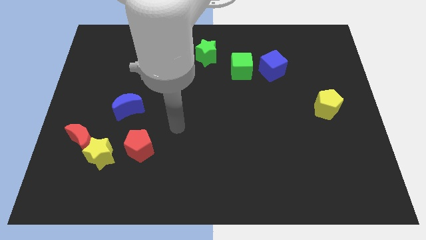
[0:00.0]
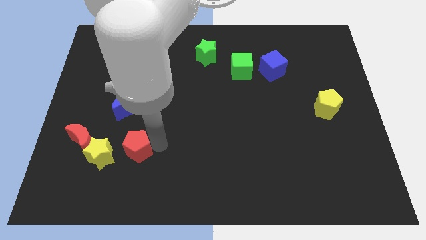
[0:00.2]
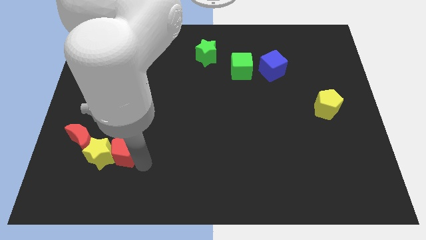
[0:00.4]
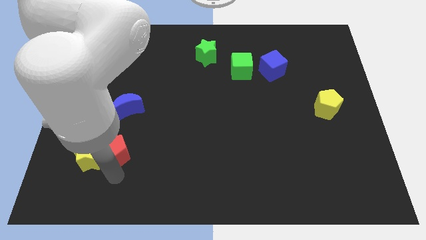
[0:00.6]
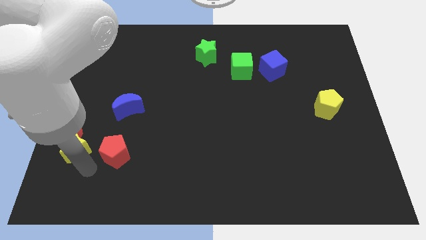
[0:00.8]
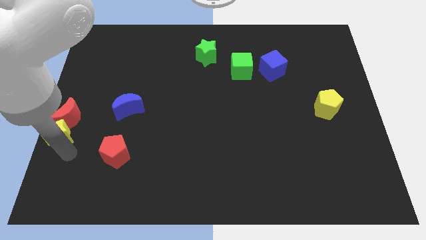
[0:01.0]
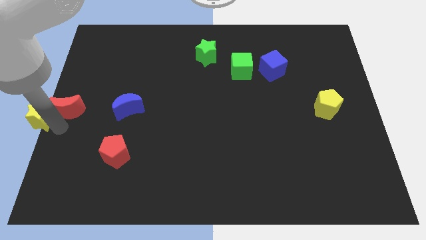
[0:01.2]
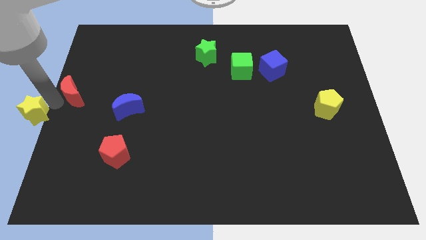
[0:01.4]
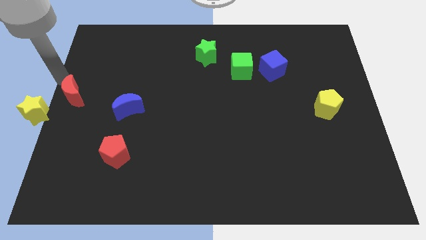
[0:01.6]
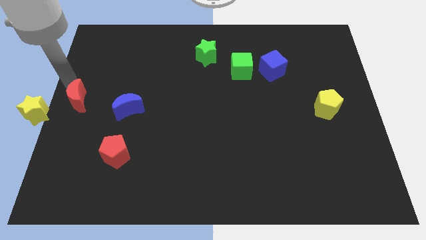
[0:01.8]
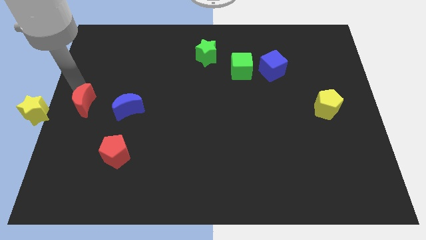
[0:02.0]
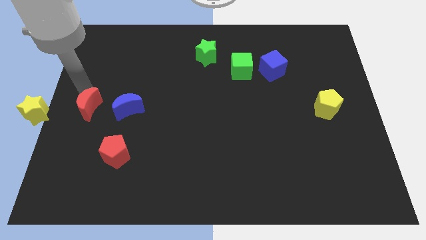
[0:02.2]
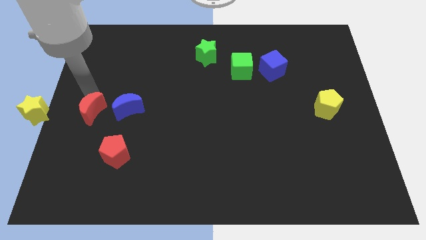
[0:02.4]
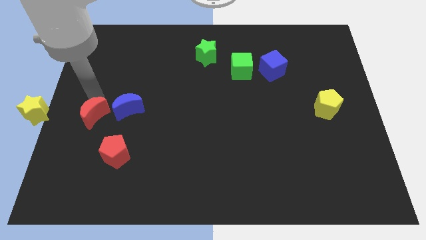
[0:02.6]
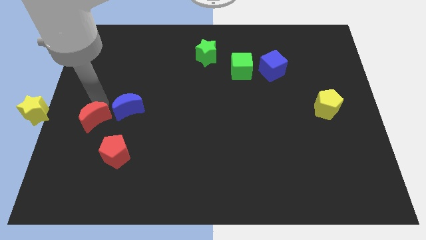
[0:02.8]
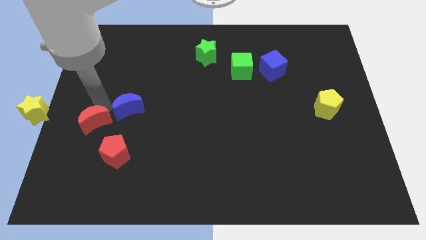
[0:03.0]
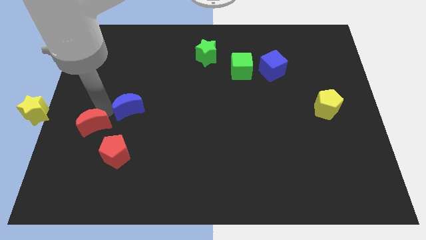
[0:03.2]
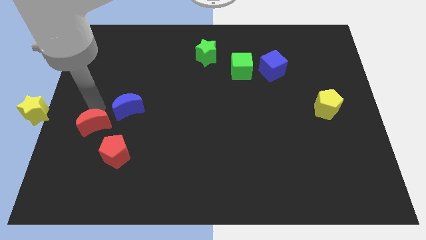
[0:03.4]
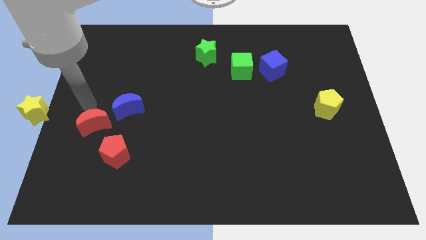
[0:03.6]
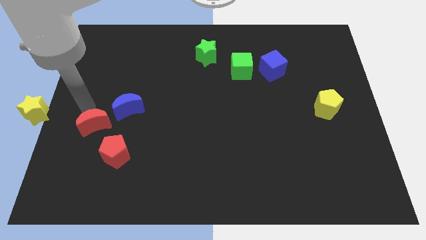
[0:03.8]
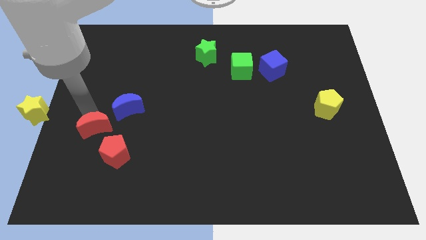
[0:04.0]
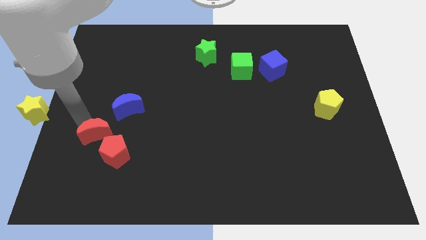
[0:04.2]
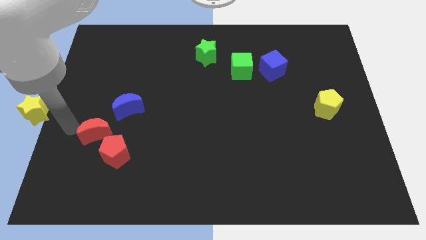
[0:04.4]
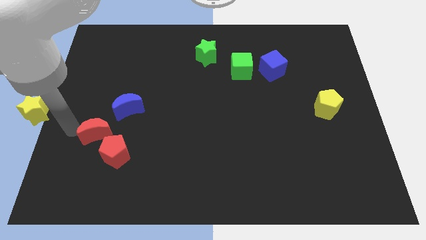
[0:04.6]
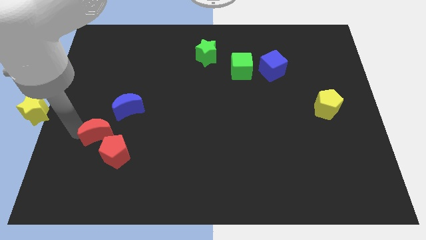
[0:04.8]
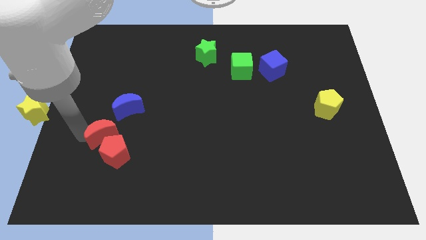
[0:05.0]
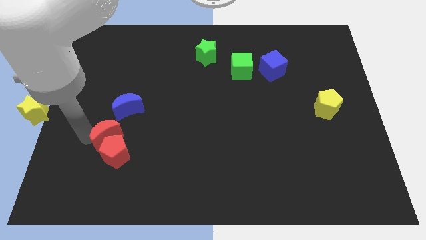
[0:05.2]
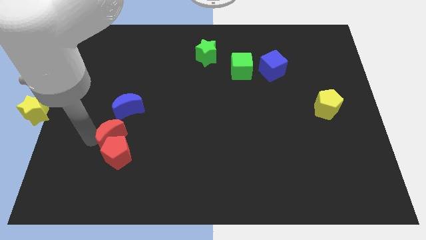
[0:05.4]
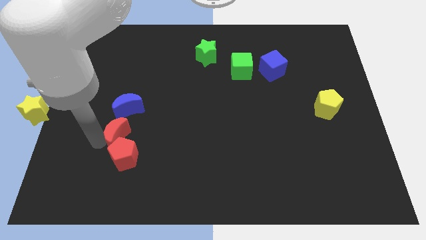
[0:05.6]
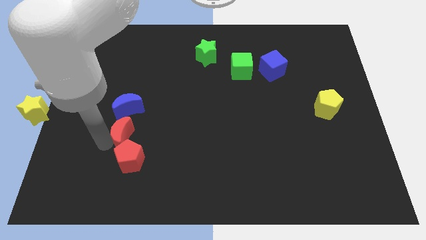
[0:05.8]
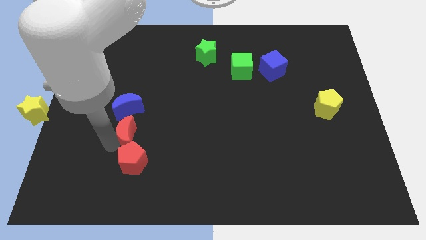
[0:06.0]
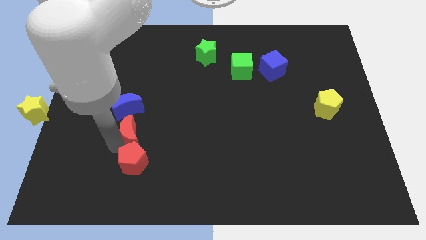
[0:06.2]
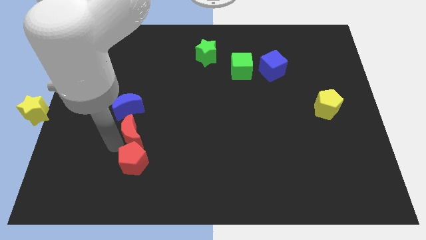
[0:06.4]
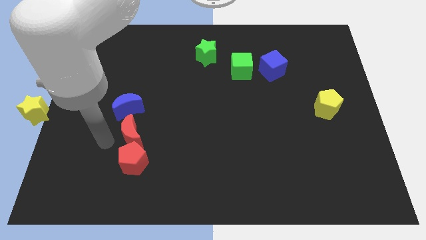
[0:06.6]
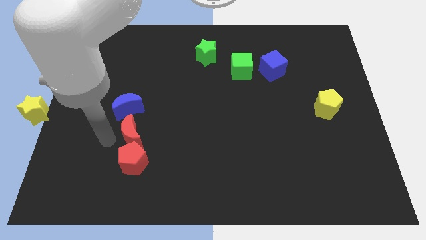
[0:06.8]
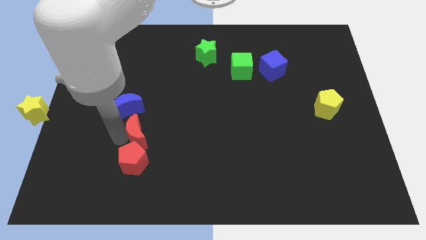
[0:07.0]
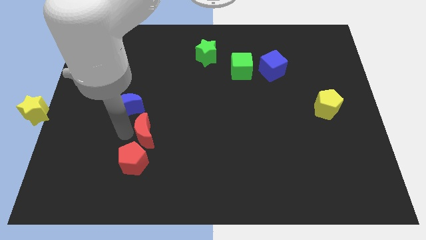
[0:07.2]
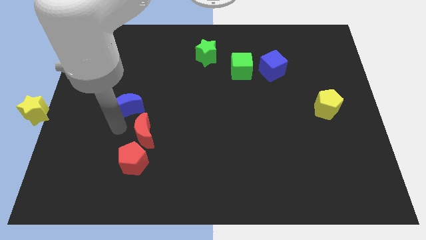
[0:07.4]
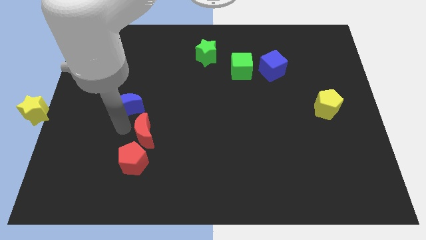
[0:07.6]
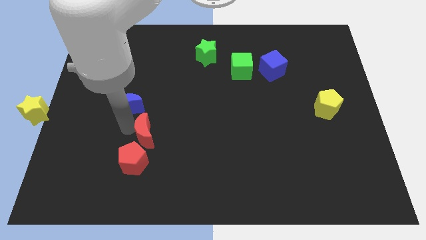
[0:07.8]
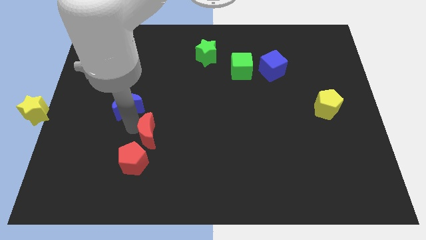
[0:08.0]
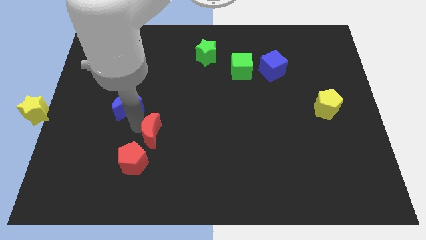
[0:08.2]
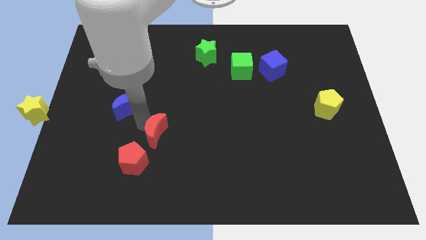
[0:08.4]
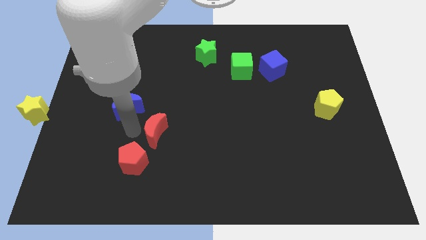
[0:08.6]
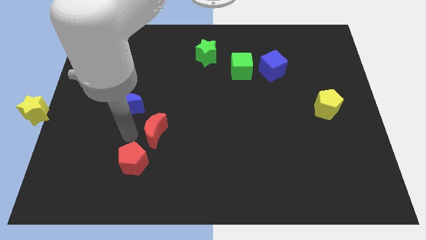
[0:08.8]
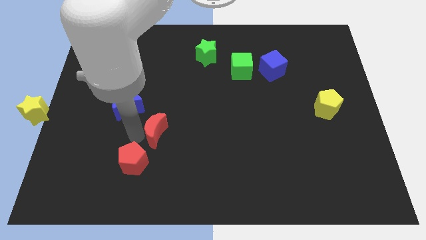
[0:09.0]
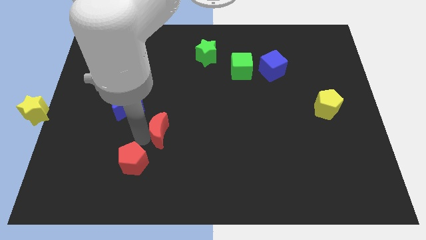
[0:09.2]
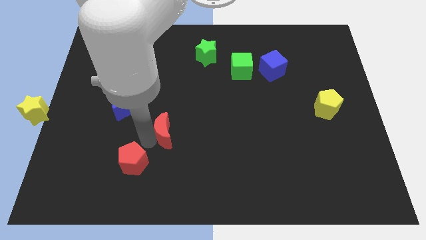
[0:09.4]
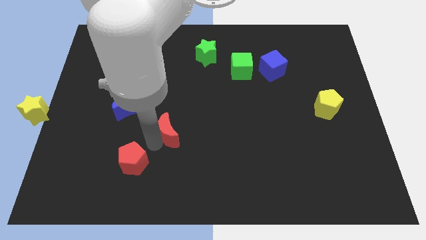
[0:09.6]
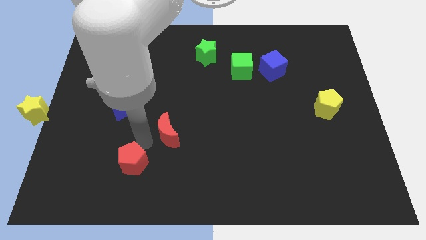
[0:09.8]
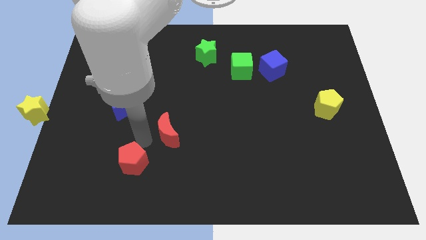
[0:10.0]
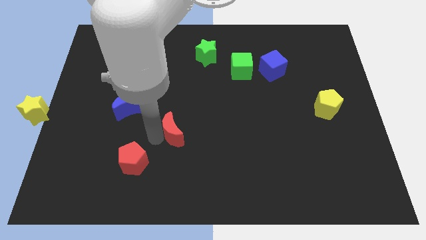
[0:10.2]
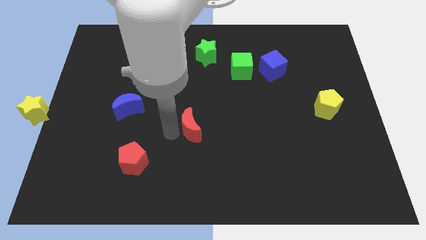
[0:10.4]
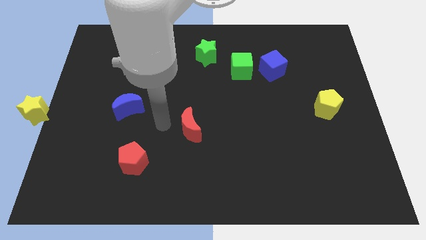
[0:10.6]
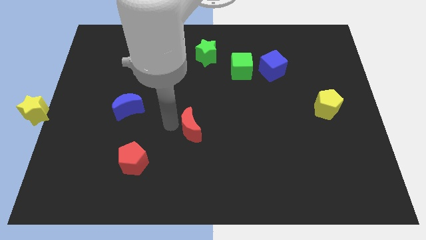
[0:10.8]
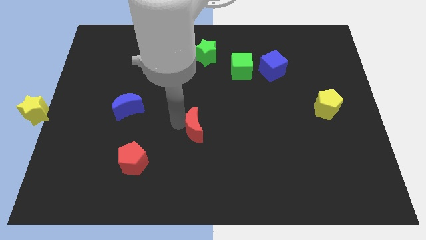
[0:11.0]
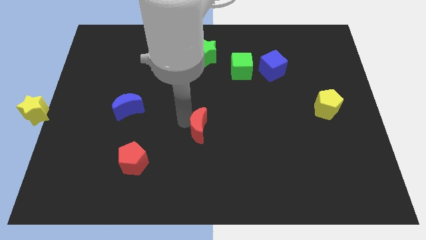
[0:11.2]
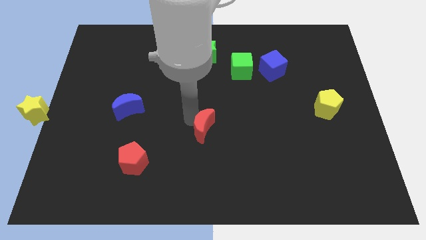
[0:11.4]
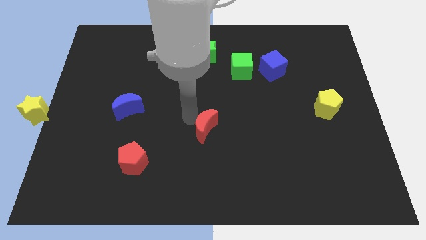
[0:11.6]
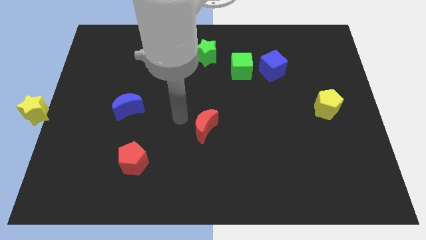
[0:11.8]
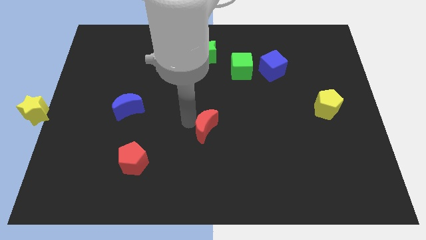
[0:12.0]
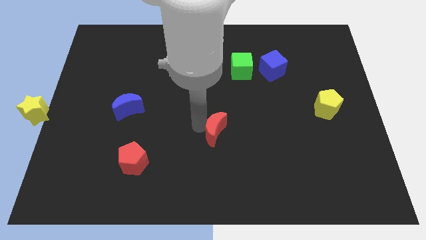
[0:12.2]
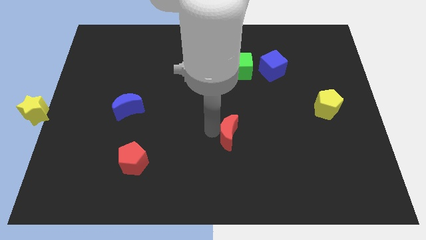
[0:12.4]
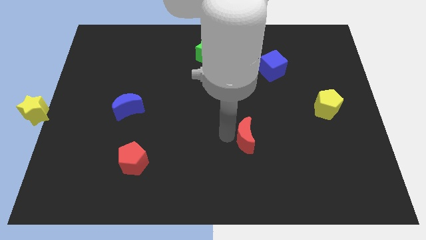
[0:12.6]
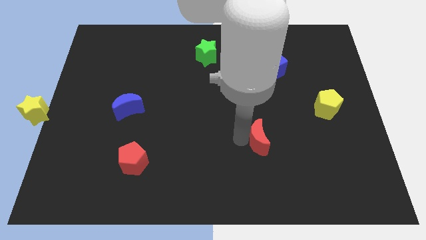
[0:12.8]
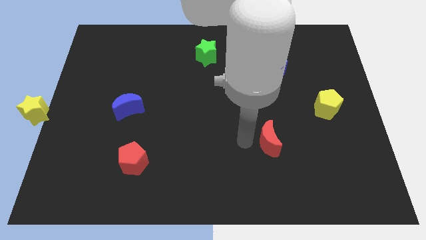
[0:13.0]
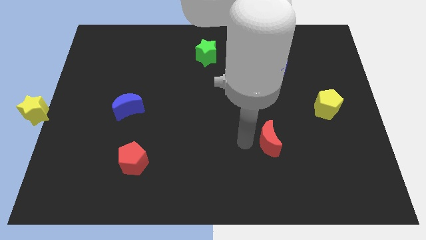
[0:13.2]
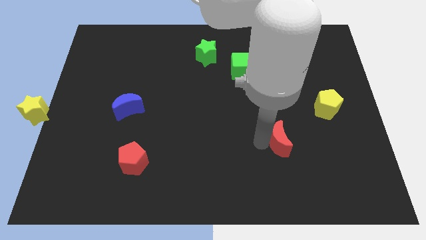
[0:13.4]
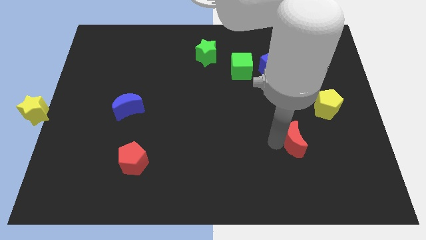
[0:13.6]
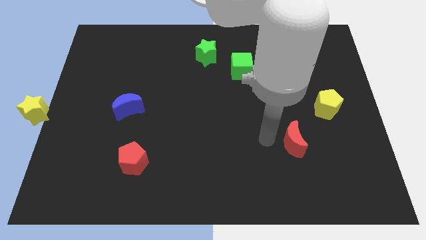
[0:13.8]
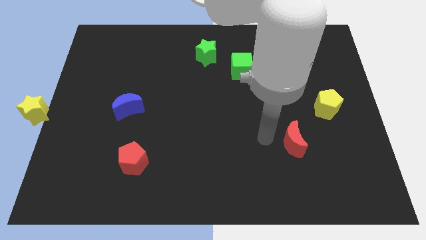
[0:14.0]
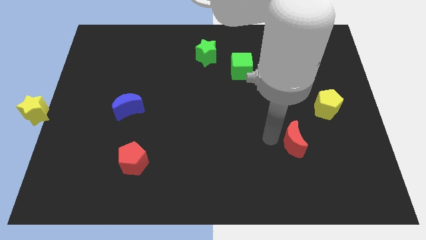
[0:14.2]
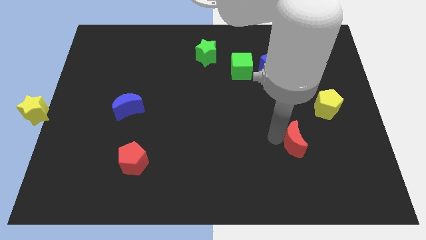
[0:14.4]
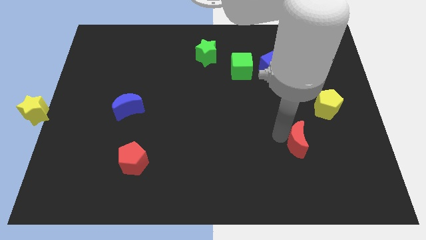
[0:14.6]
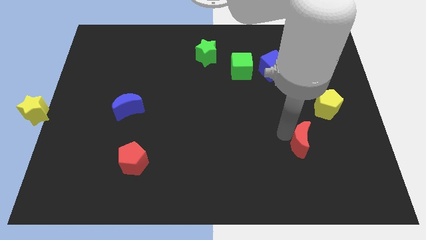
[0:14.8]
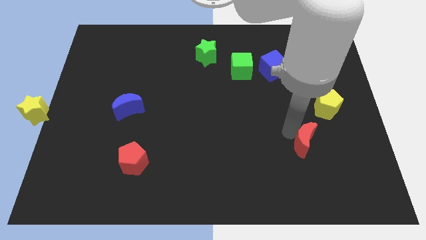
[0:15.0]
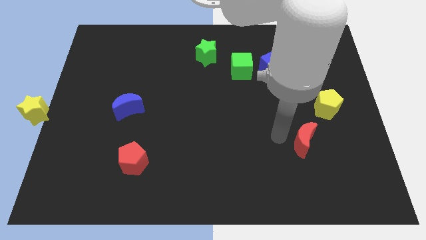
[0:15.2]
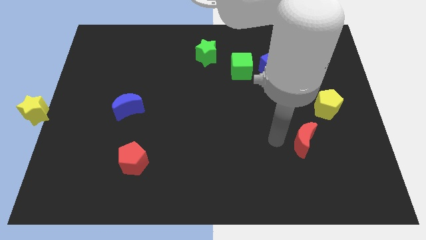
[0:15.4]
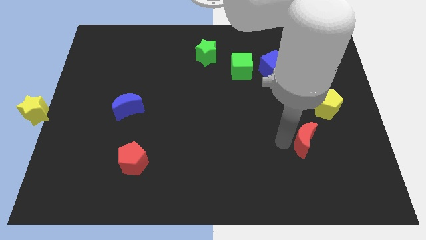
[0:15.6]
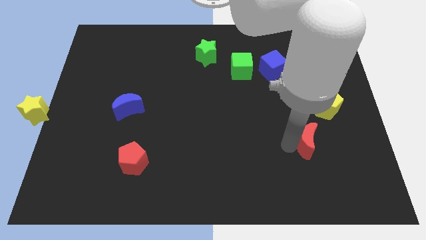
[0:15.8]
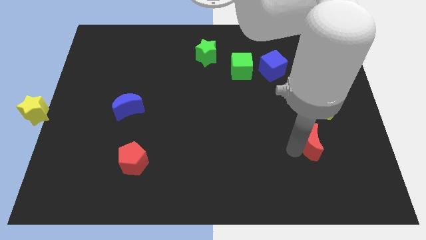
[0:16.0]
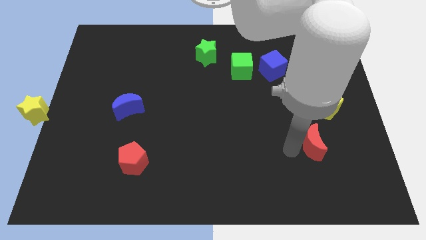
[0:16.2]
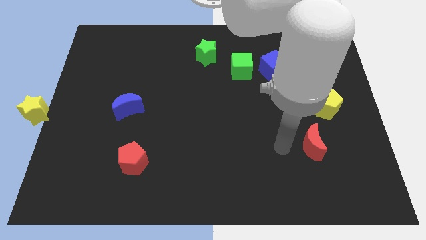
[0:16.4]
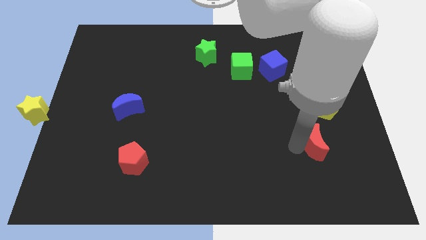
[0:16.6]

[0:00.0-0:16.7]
slide the red moon to the bottom of the yellow pentagon
